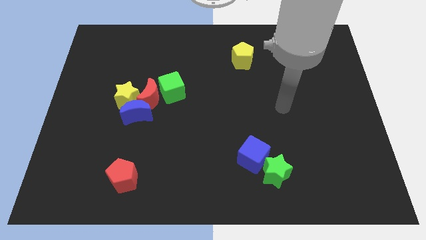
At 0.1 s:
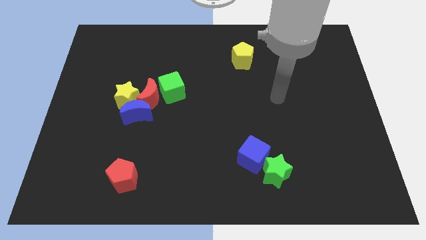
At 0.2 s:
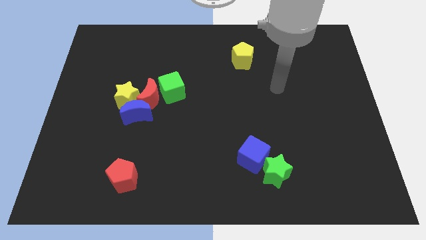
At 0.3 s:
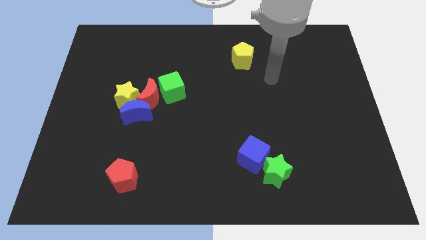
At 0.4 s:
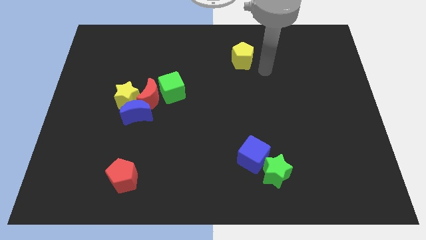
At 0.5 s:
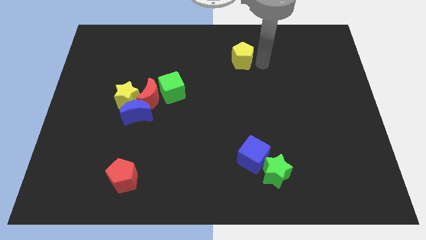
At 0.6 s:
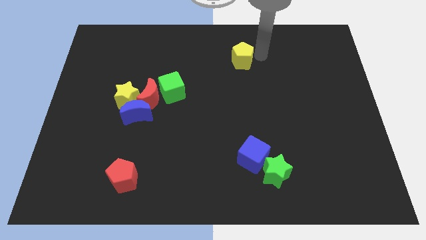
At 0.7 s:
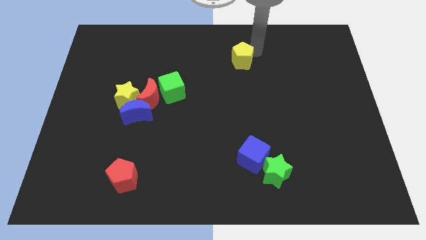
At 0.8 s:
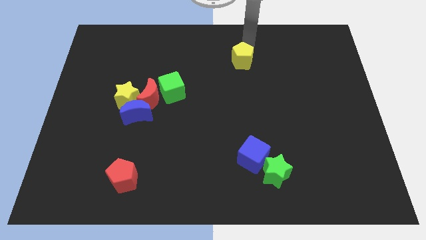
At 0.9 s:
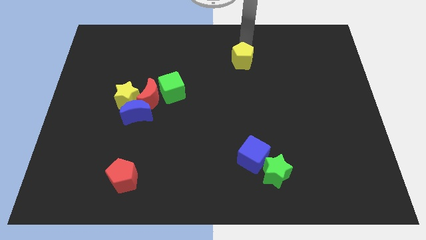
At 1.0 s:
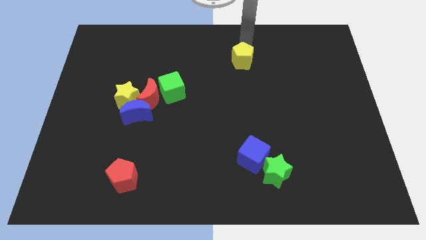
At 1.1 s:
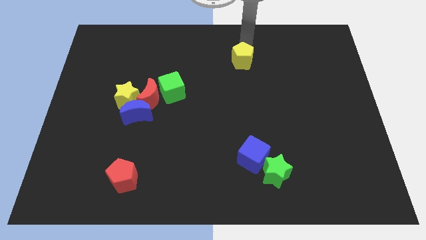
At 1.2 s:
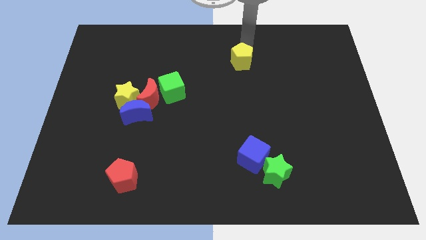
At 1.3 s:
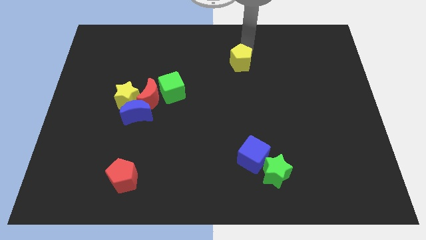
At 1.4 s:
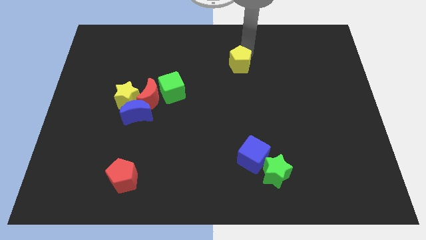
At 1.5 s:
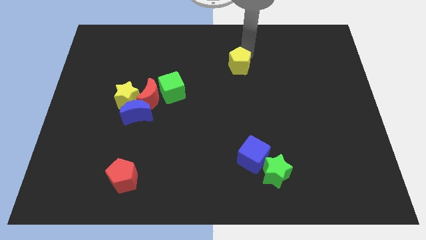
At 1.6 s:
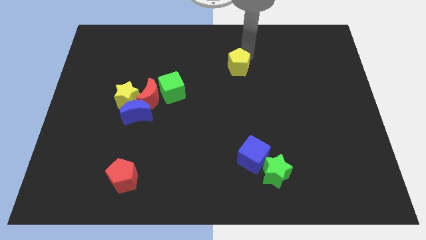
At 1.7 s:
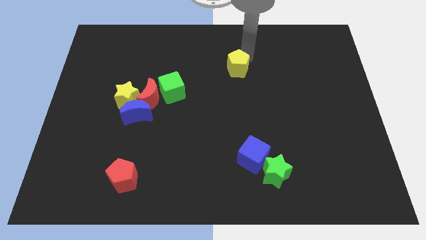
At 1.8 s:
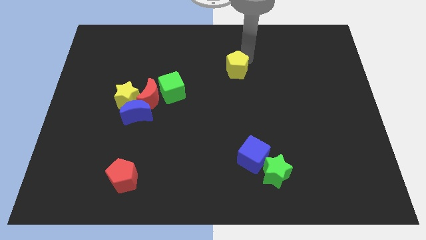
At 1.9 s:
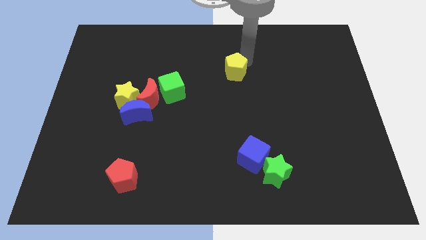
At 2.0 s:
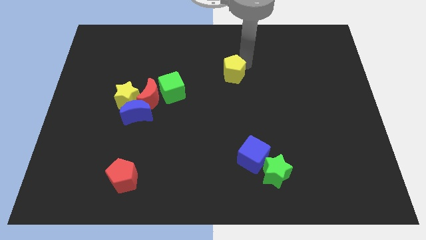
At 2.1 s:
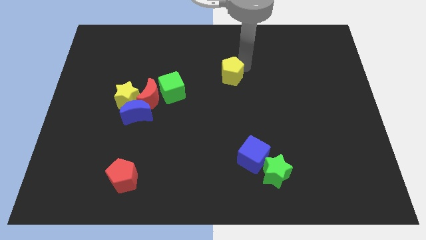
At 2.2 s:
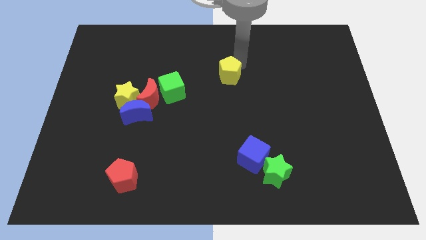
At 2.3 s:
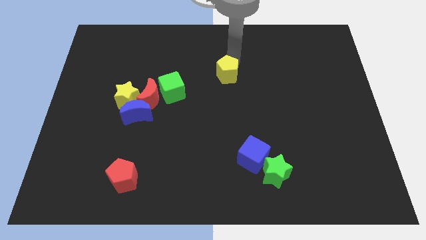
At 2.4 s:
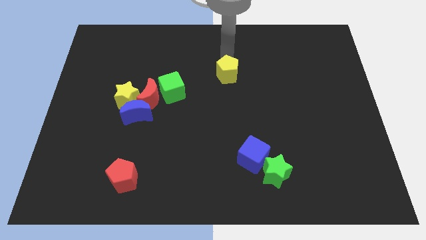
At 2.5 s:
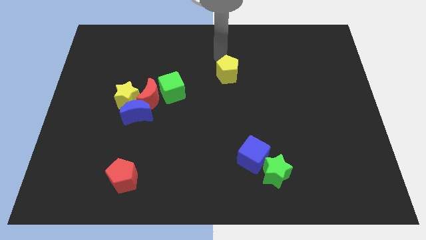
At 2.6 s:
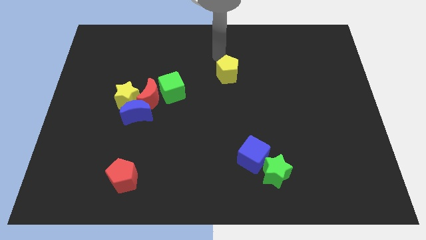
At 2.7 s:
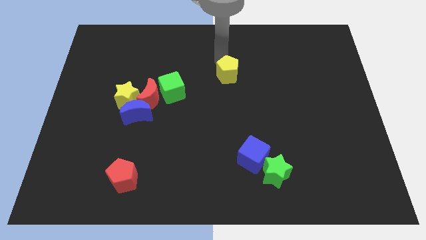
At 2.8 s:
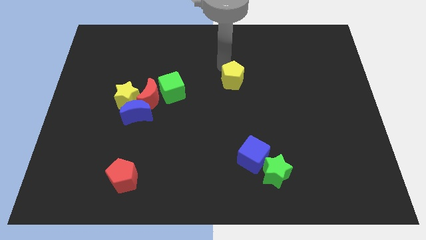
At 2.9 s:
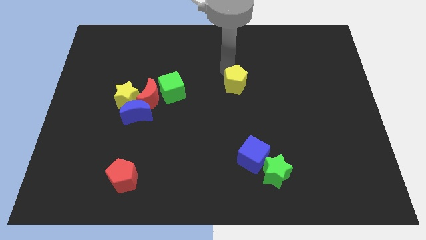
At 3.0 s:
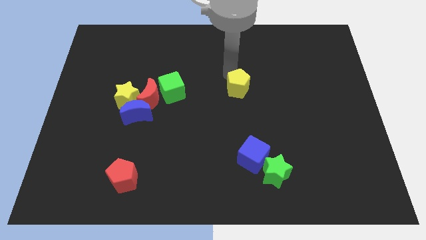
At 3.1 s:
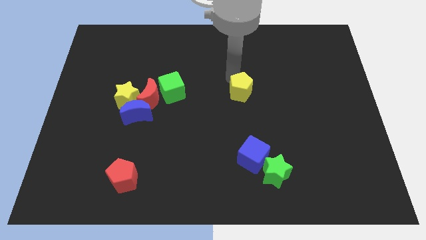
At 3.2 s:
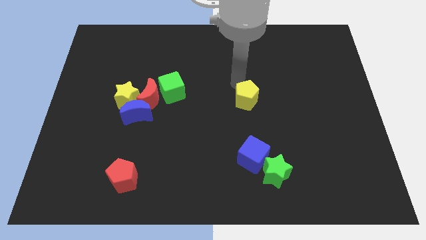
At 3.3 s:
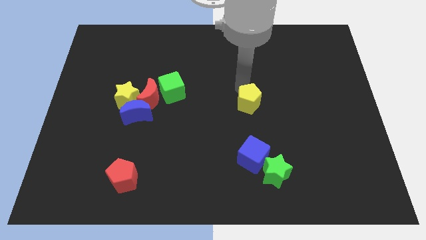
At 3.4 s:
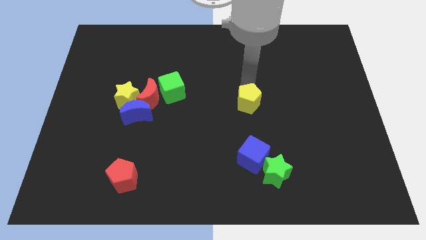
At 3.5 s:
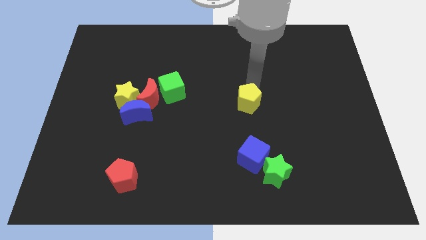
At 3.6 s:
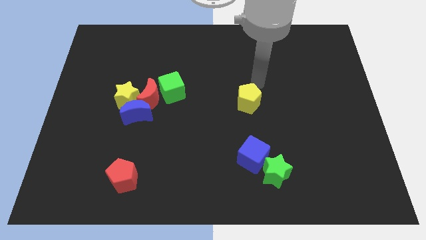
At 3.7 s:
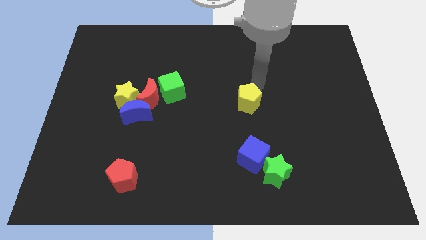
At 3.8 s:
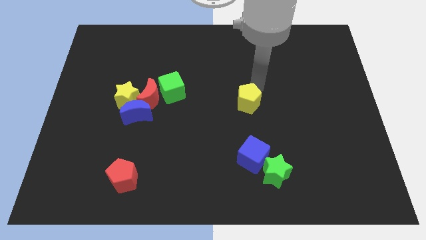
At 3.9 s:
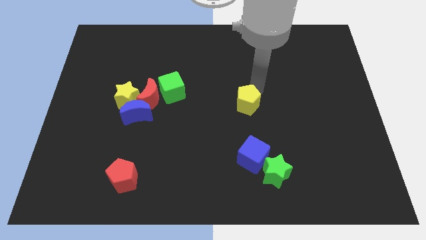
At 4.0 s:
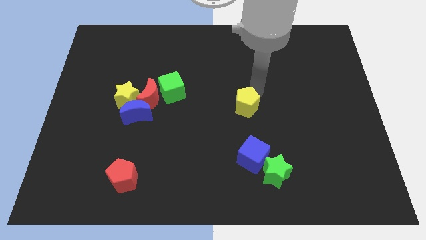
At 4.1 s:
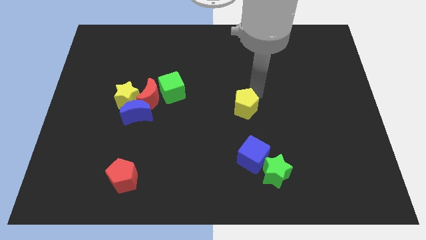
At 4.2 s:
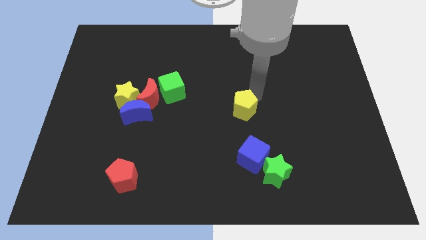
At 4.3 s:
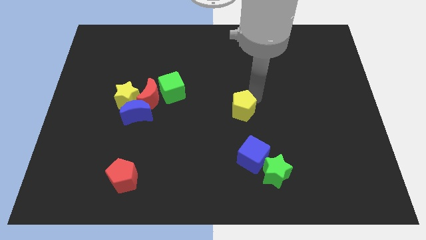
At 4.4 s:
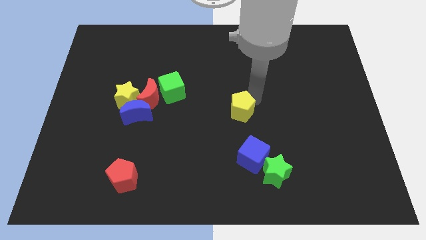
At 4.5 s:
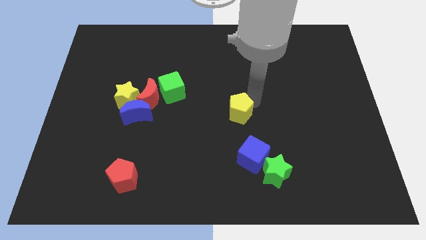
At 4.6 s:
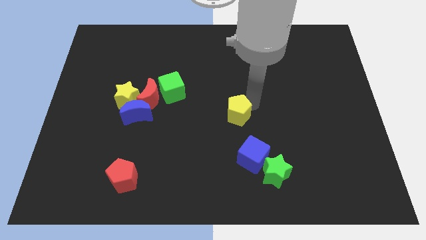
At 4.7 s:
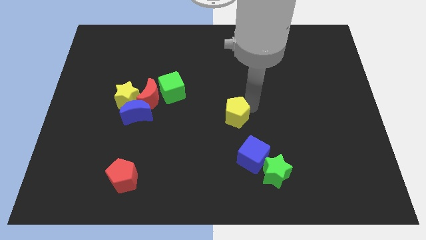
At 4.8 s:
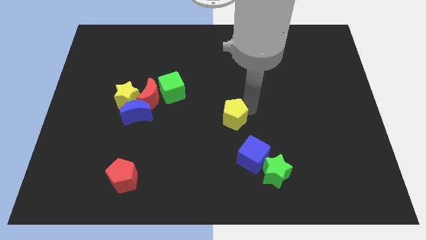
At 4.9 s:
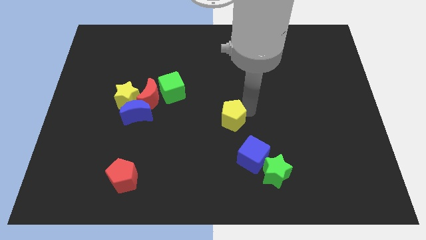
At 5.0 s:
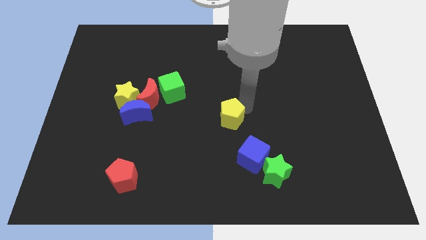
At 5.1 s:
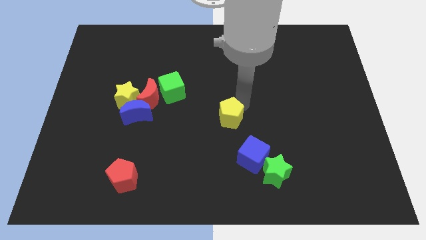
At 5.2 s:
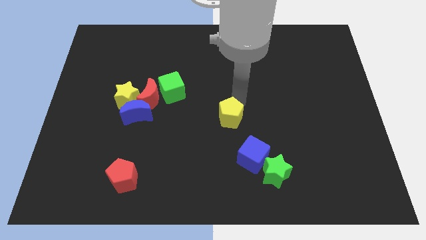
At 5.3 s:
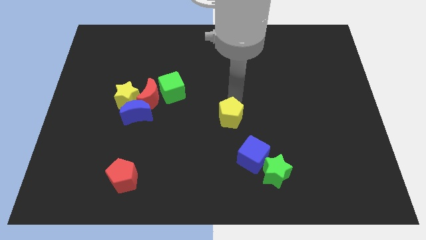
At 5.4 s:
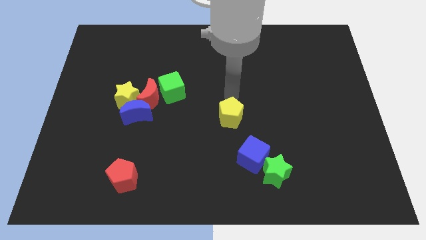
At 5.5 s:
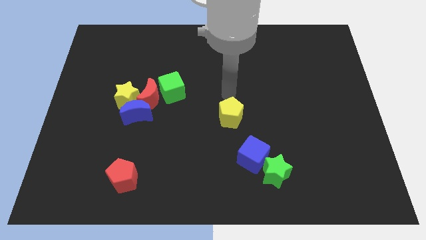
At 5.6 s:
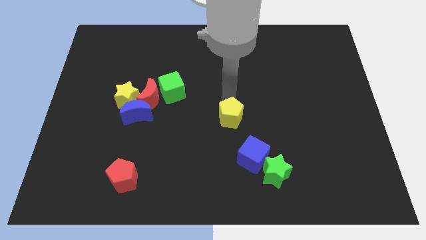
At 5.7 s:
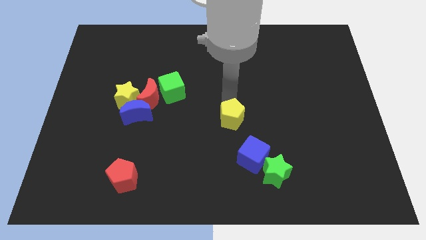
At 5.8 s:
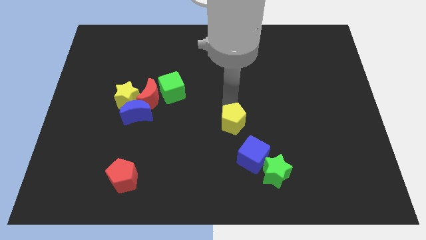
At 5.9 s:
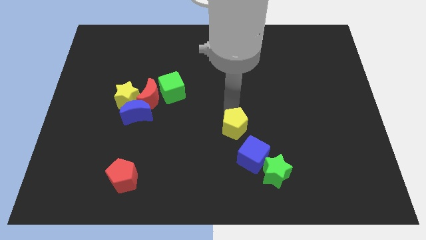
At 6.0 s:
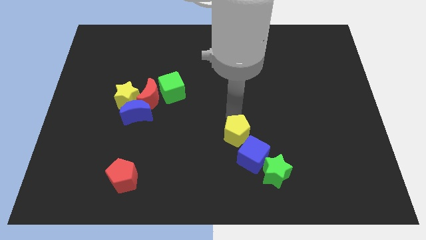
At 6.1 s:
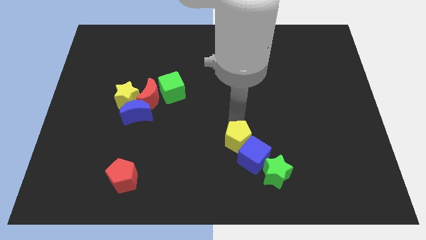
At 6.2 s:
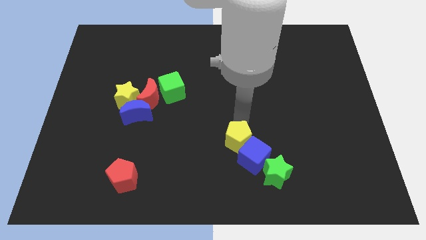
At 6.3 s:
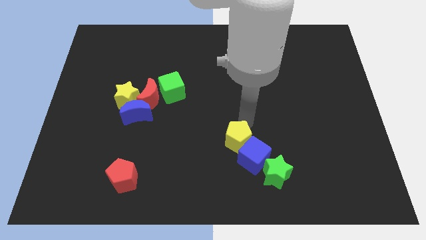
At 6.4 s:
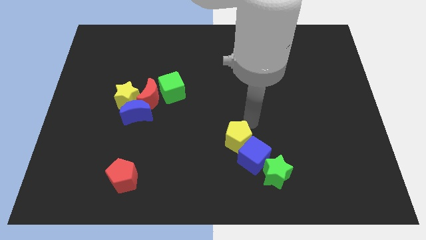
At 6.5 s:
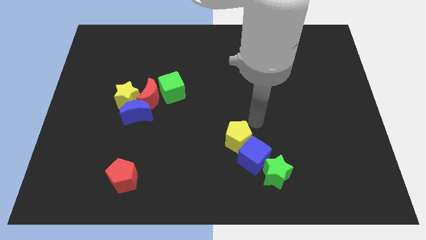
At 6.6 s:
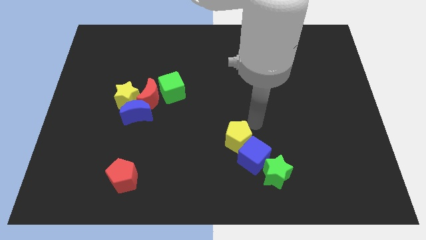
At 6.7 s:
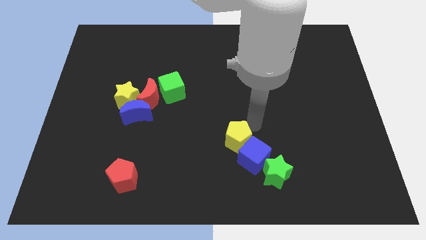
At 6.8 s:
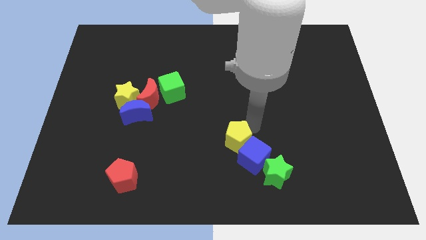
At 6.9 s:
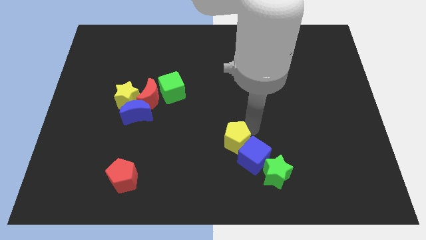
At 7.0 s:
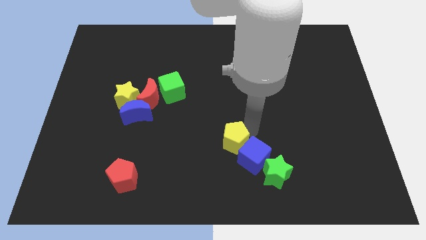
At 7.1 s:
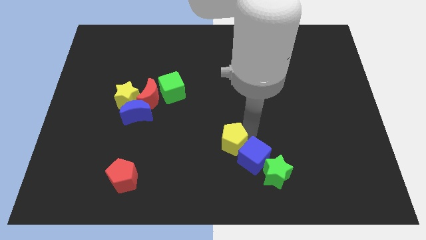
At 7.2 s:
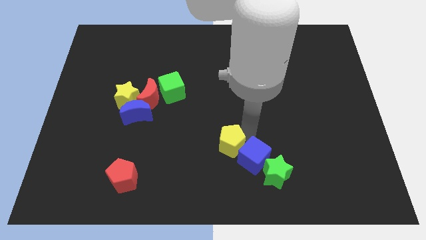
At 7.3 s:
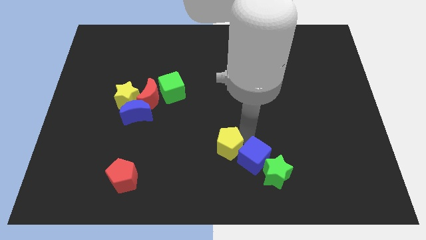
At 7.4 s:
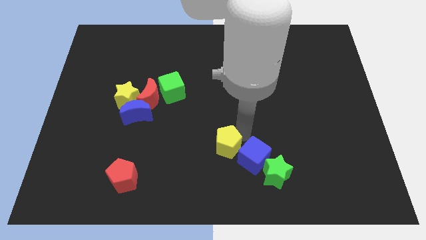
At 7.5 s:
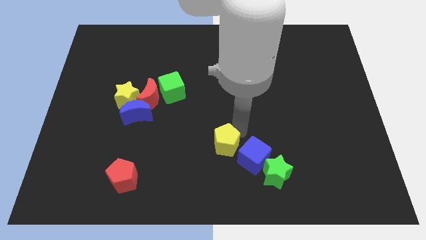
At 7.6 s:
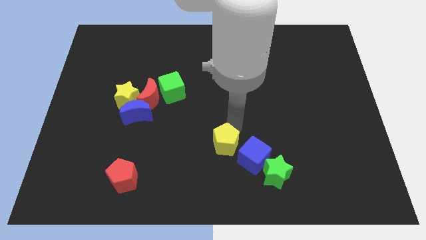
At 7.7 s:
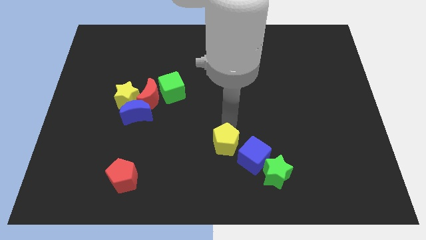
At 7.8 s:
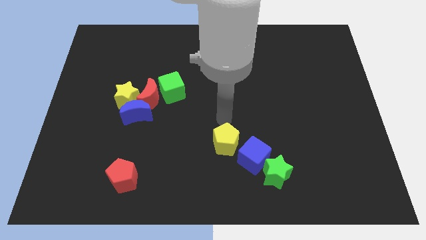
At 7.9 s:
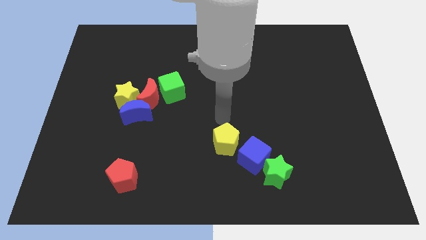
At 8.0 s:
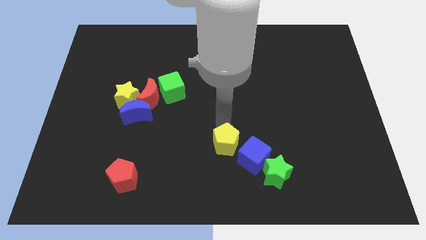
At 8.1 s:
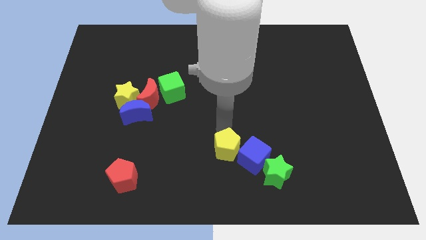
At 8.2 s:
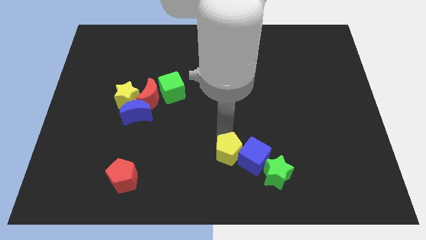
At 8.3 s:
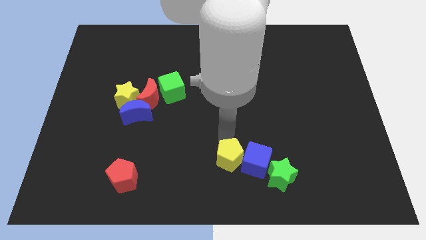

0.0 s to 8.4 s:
push the yellow pentagon to the bottom side
